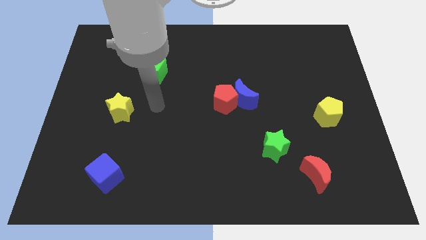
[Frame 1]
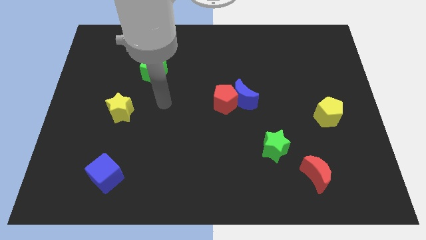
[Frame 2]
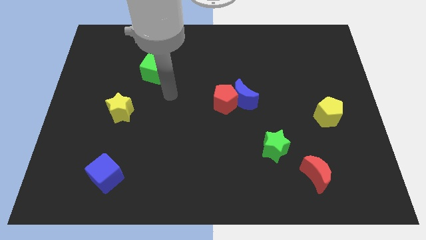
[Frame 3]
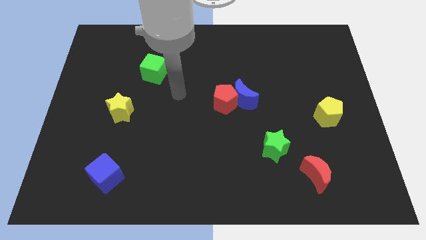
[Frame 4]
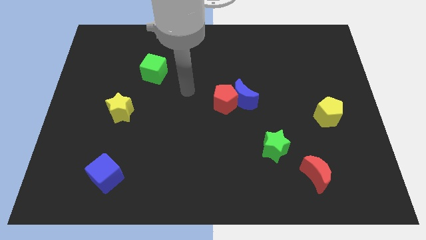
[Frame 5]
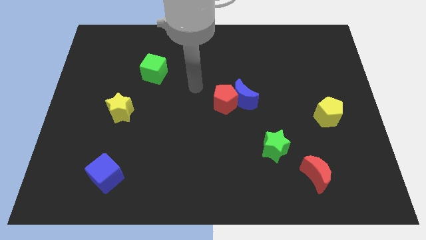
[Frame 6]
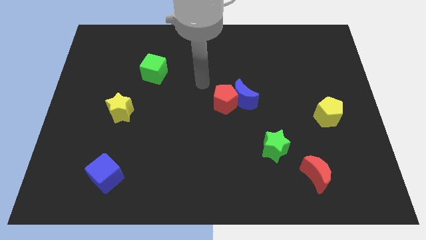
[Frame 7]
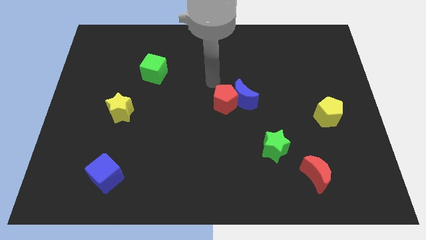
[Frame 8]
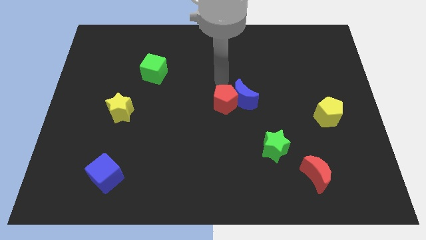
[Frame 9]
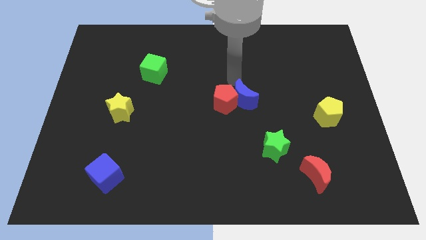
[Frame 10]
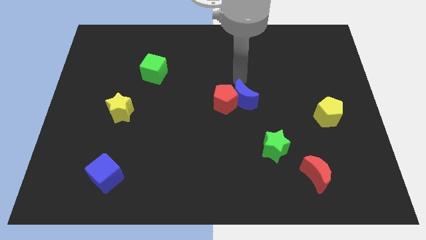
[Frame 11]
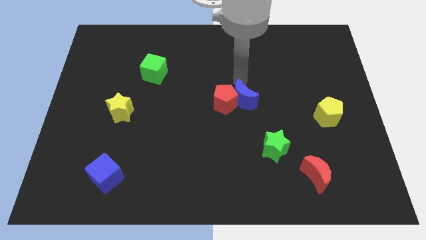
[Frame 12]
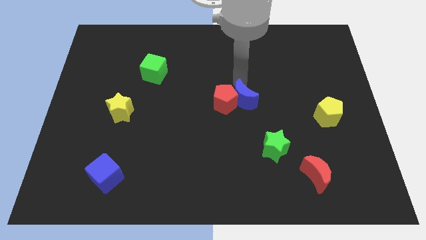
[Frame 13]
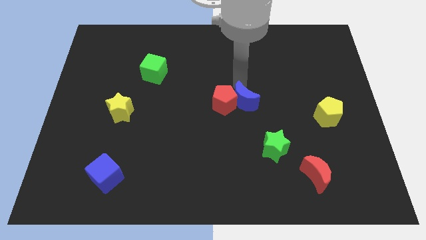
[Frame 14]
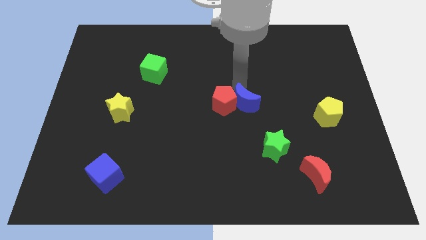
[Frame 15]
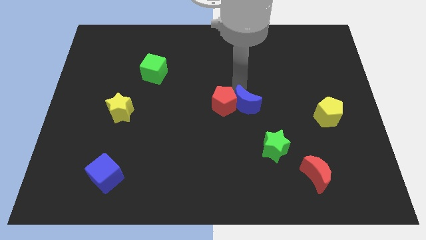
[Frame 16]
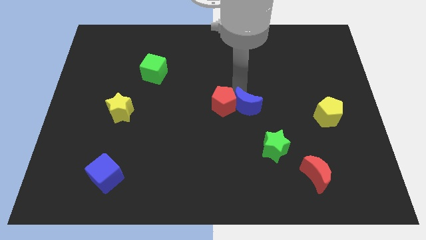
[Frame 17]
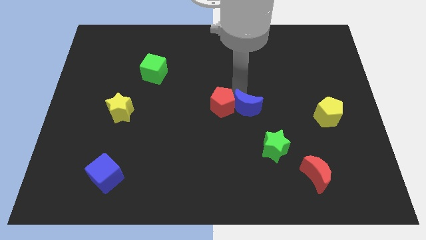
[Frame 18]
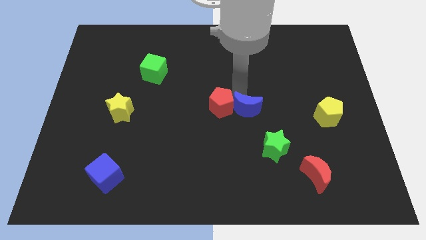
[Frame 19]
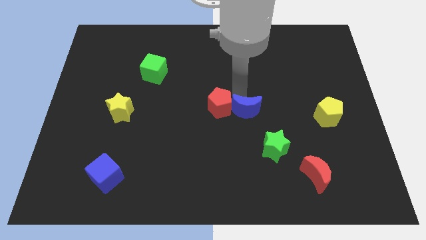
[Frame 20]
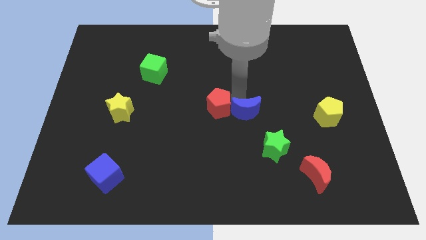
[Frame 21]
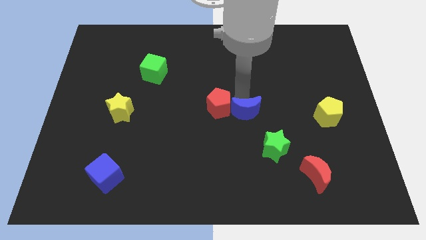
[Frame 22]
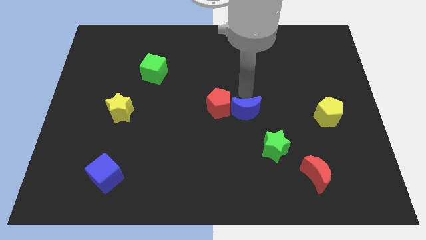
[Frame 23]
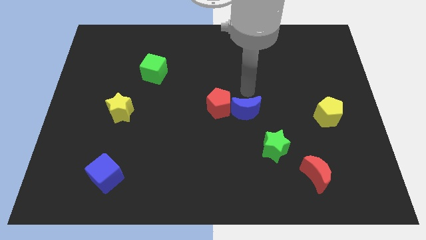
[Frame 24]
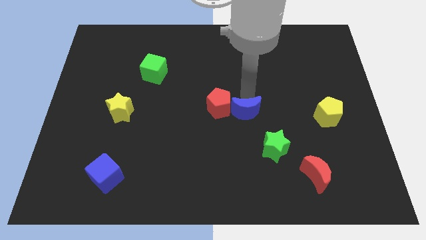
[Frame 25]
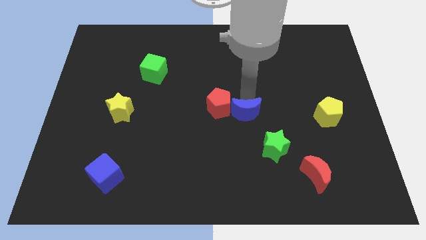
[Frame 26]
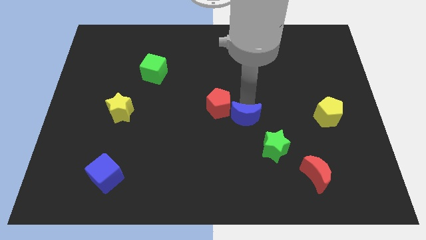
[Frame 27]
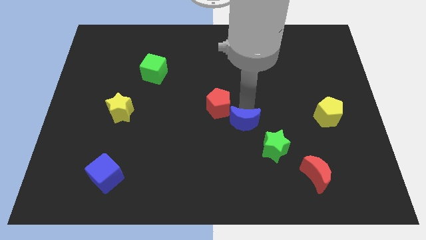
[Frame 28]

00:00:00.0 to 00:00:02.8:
push the blue moon somewhat downwards

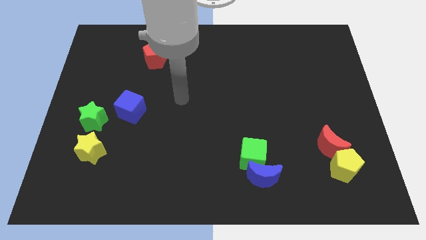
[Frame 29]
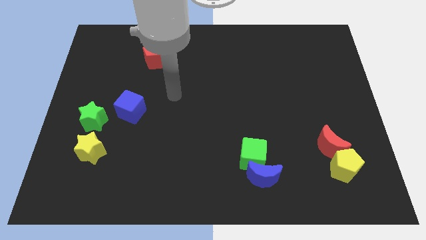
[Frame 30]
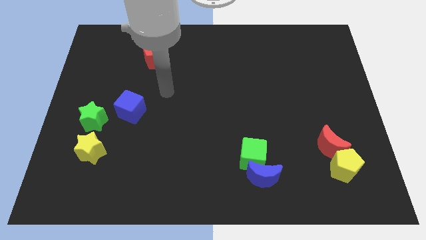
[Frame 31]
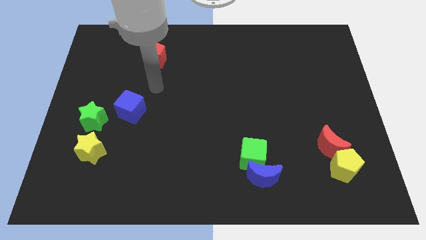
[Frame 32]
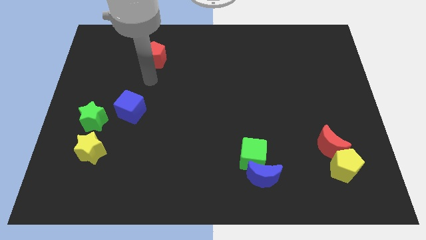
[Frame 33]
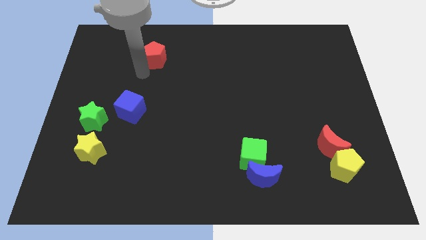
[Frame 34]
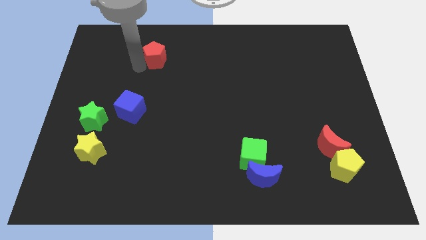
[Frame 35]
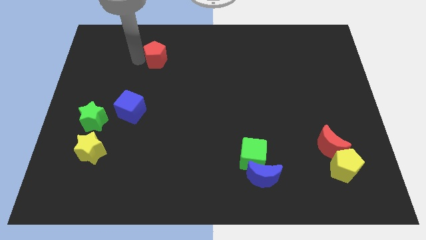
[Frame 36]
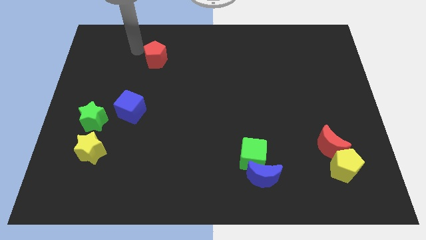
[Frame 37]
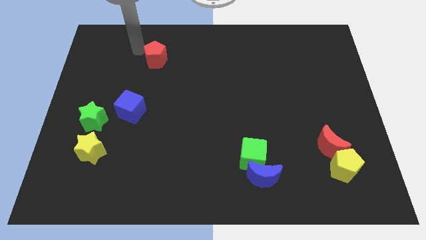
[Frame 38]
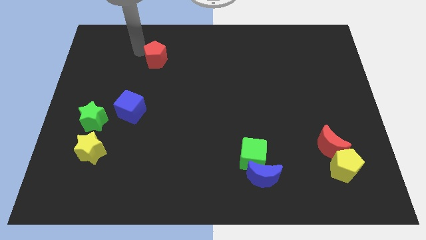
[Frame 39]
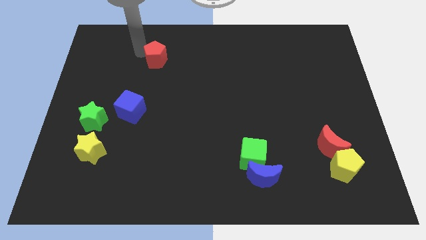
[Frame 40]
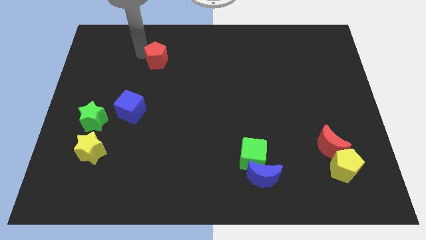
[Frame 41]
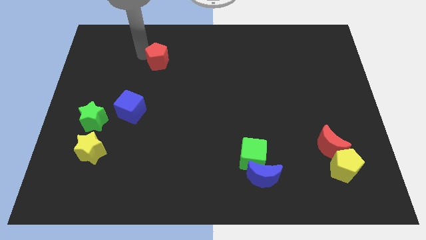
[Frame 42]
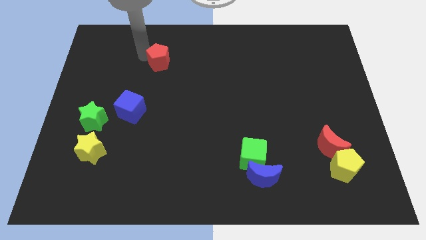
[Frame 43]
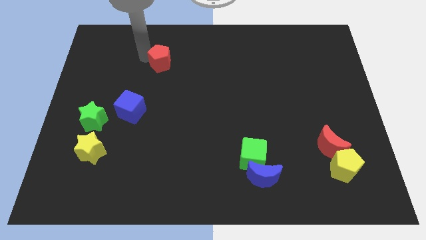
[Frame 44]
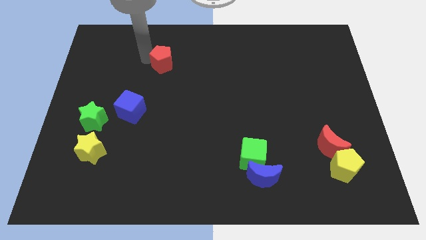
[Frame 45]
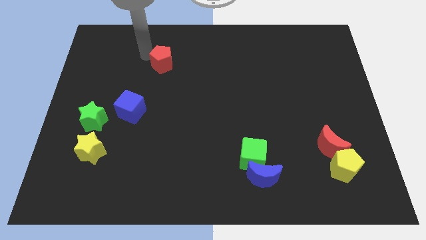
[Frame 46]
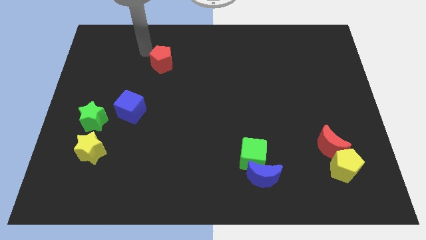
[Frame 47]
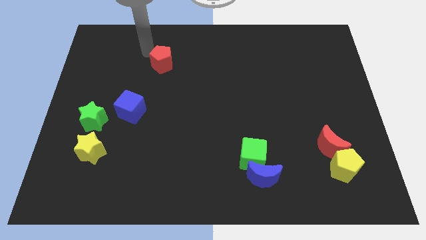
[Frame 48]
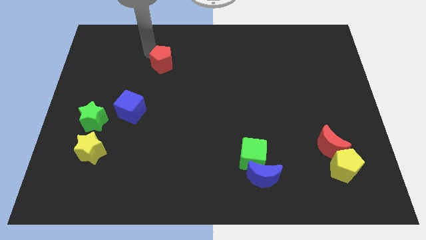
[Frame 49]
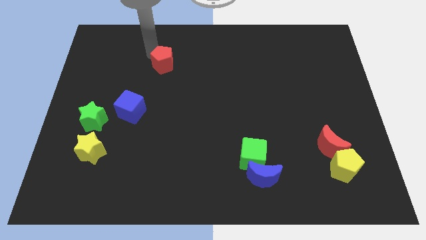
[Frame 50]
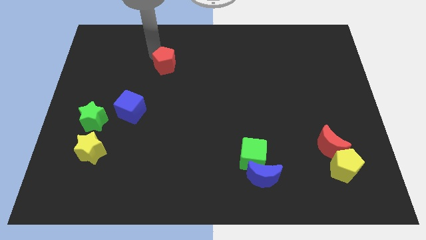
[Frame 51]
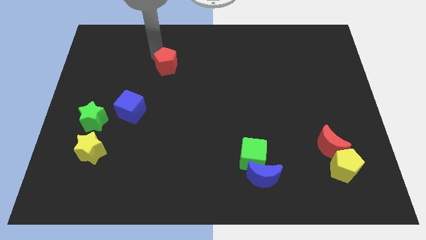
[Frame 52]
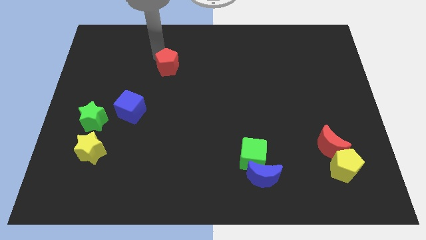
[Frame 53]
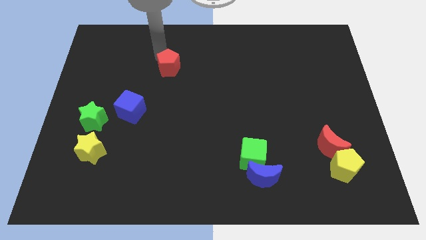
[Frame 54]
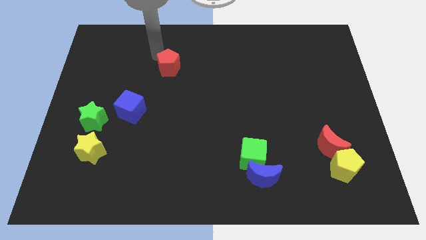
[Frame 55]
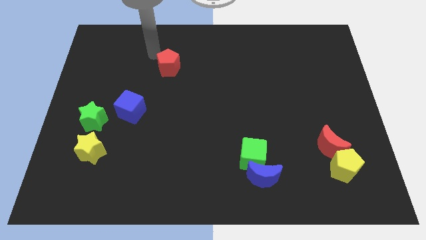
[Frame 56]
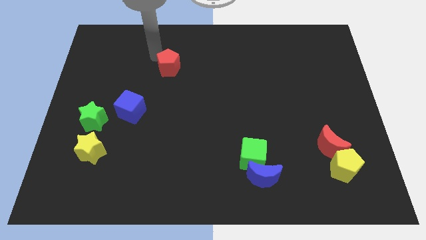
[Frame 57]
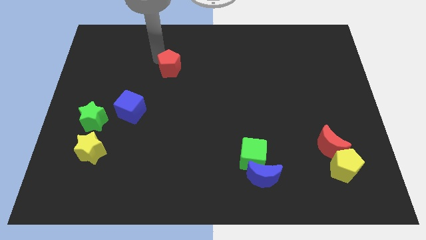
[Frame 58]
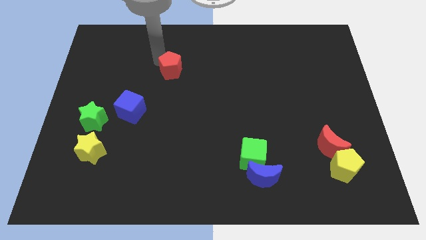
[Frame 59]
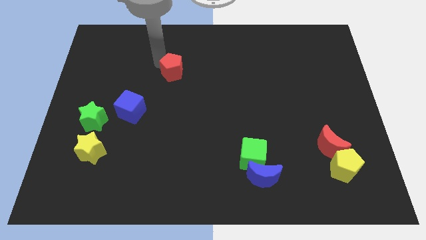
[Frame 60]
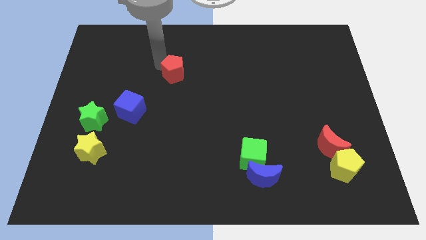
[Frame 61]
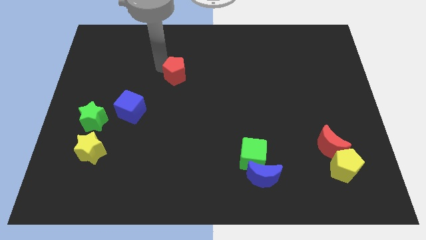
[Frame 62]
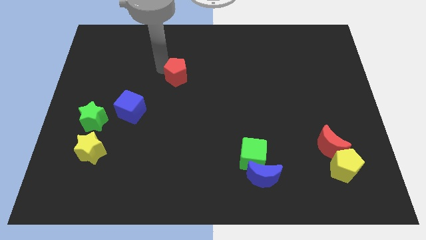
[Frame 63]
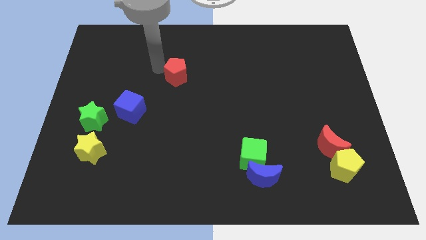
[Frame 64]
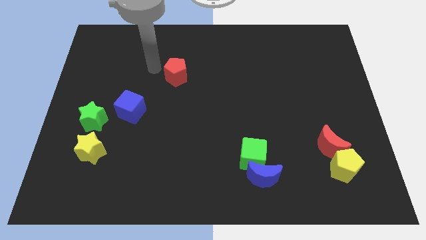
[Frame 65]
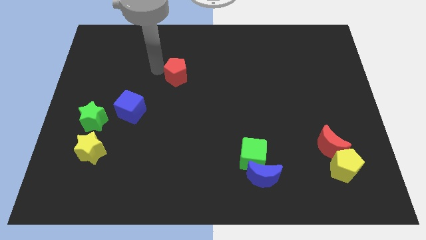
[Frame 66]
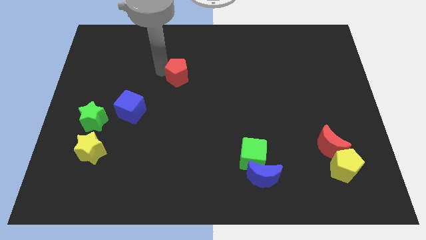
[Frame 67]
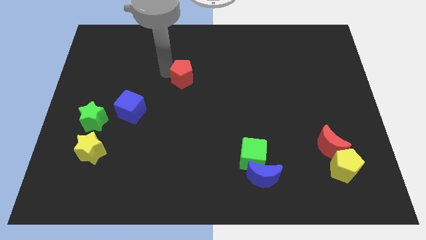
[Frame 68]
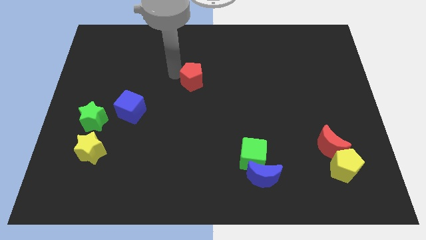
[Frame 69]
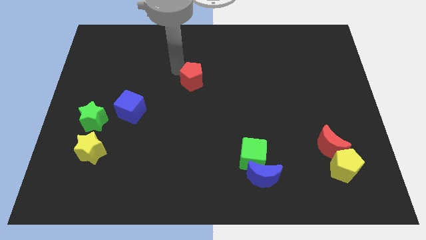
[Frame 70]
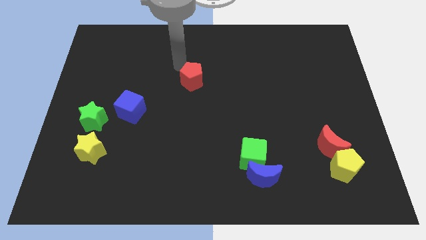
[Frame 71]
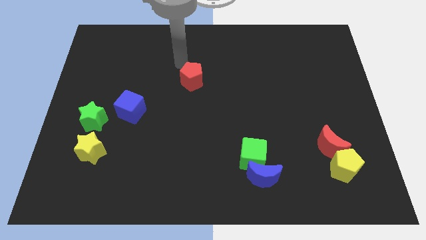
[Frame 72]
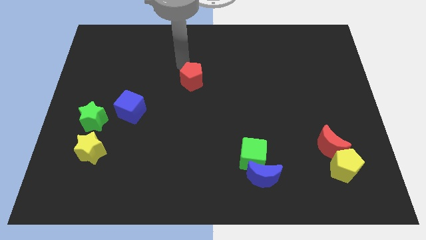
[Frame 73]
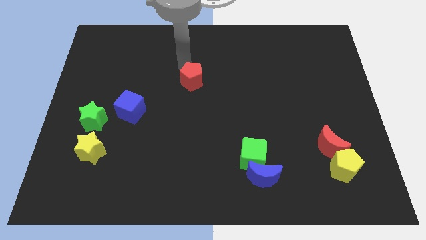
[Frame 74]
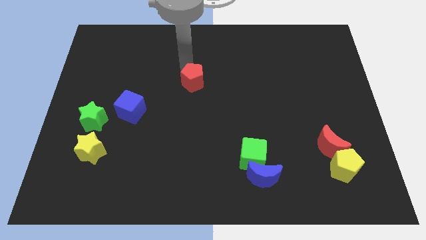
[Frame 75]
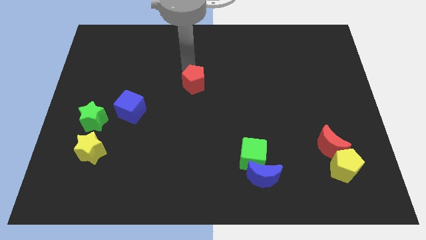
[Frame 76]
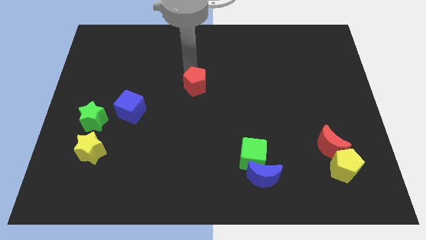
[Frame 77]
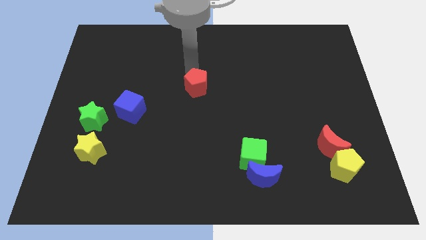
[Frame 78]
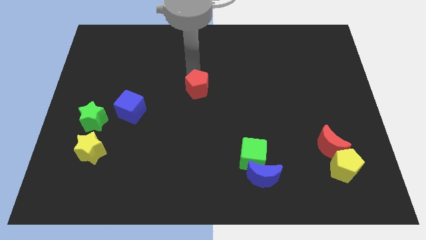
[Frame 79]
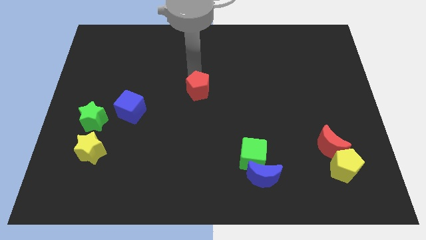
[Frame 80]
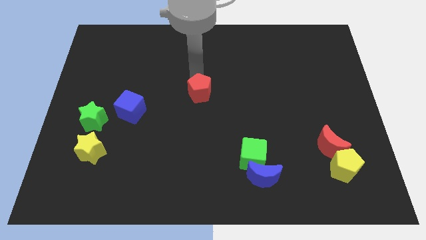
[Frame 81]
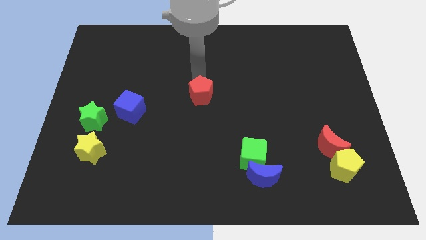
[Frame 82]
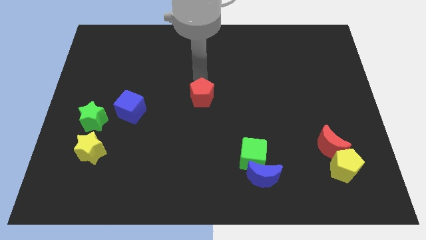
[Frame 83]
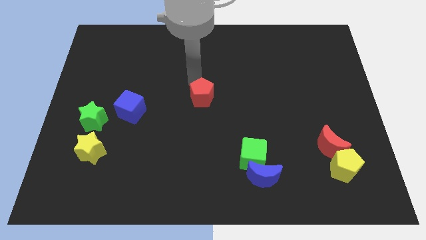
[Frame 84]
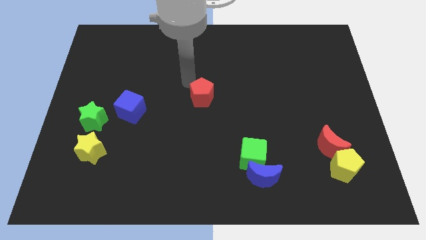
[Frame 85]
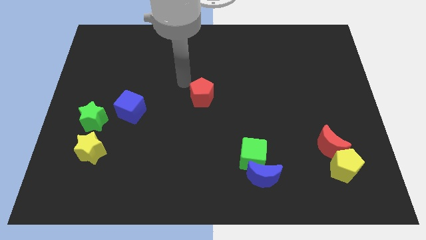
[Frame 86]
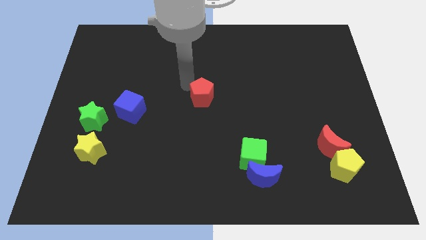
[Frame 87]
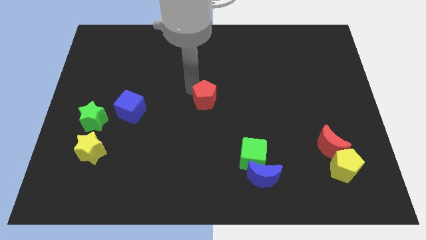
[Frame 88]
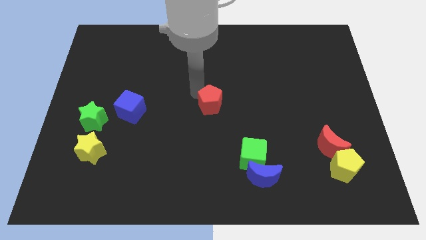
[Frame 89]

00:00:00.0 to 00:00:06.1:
push the red pentagon downwards and right
